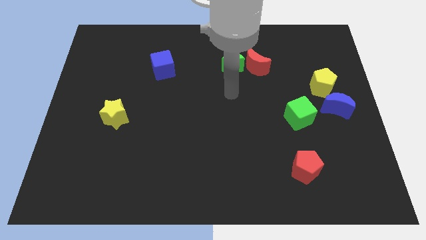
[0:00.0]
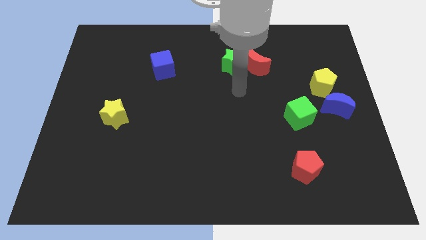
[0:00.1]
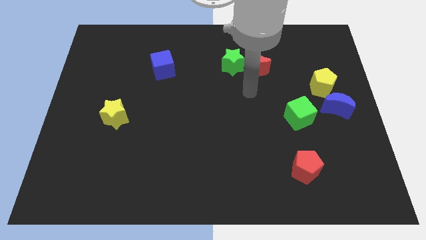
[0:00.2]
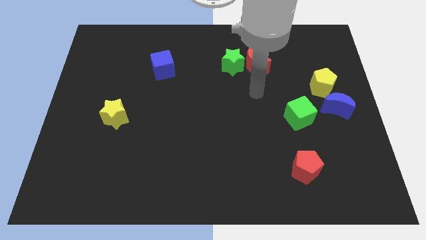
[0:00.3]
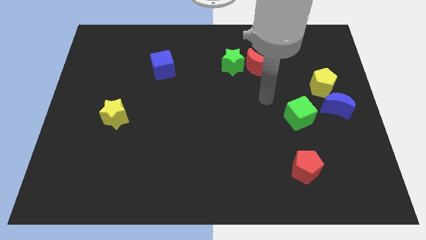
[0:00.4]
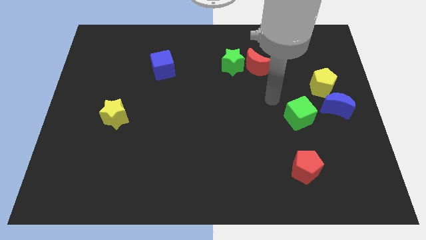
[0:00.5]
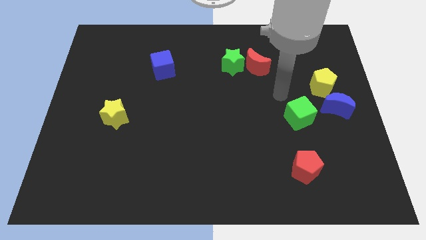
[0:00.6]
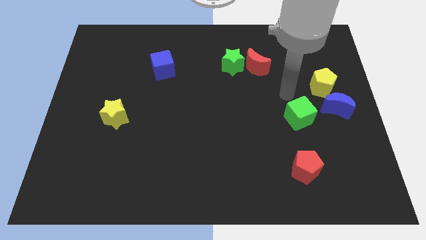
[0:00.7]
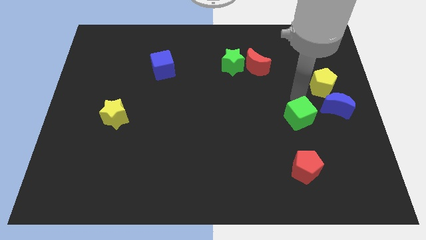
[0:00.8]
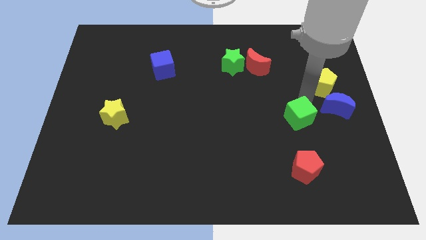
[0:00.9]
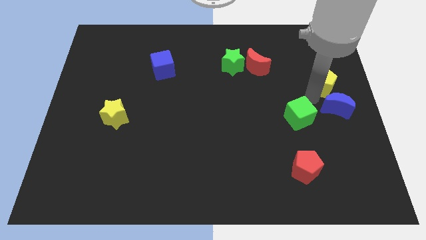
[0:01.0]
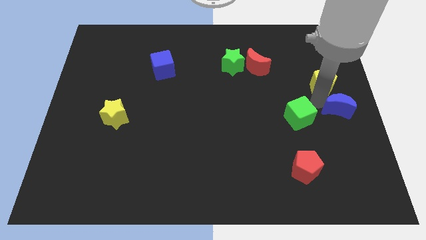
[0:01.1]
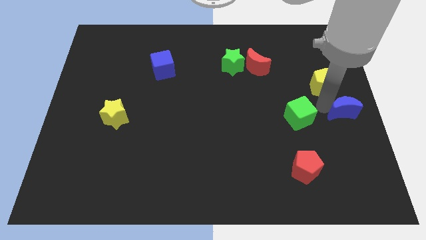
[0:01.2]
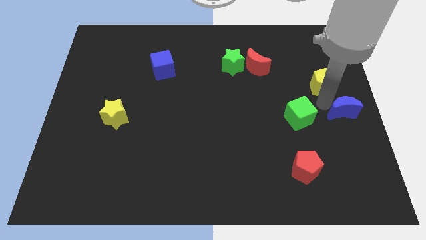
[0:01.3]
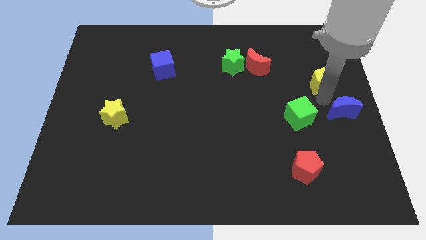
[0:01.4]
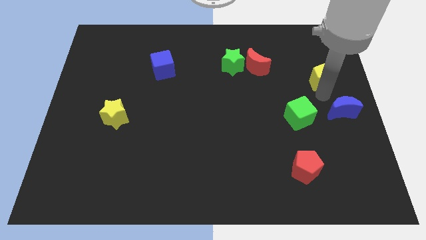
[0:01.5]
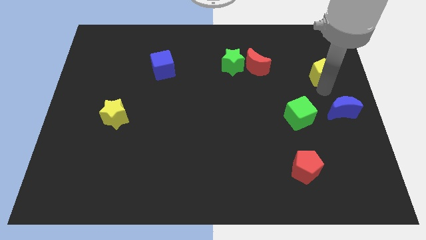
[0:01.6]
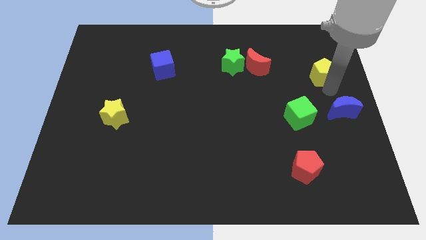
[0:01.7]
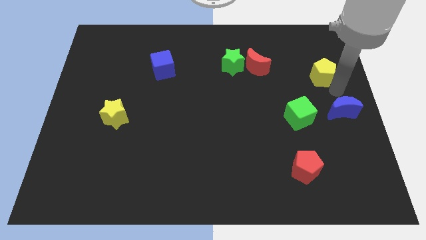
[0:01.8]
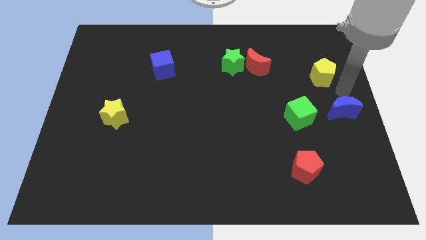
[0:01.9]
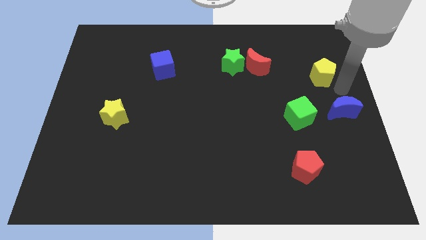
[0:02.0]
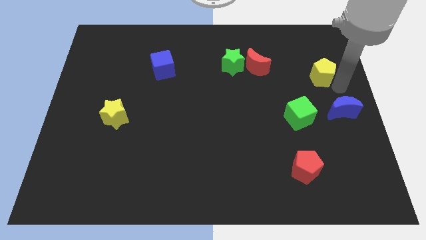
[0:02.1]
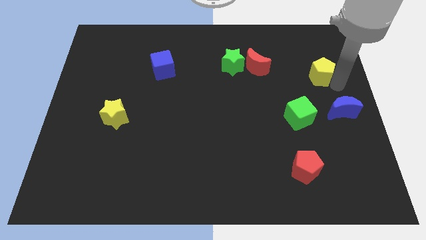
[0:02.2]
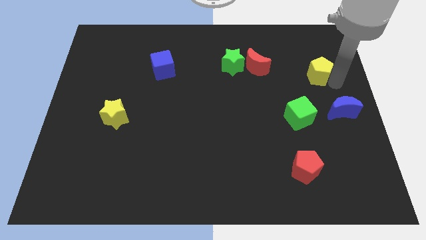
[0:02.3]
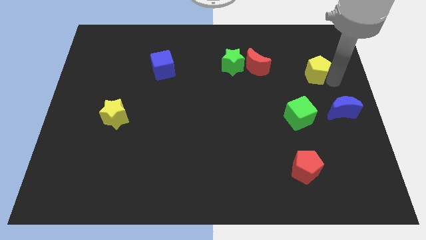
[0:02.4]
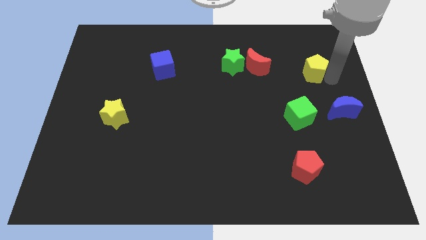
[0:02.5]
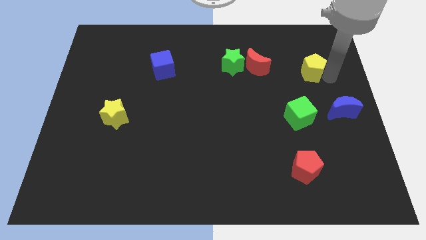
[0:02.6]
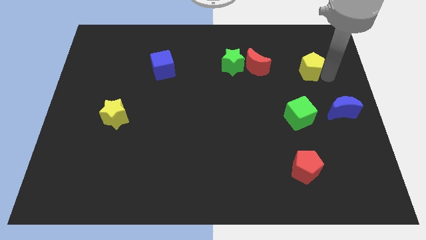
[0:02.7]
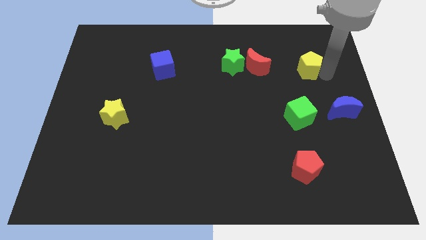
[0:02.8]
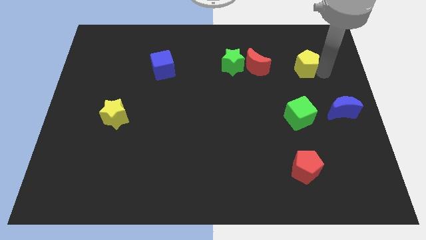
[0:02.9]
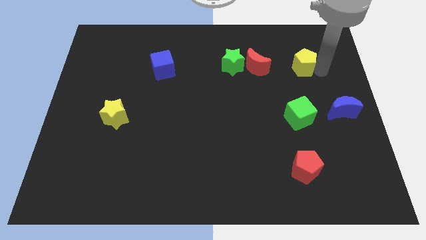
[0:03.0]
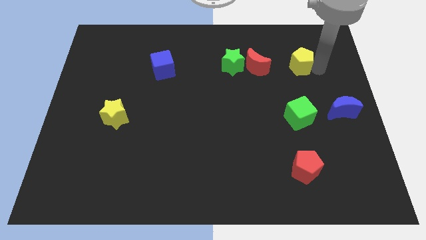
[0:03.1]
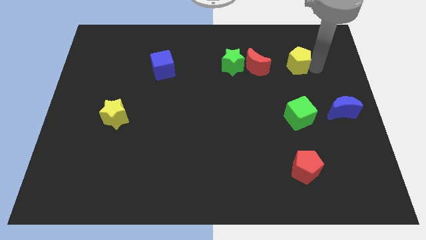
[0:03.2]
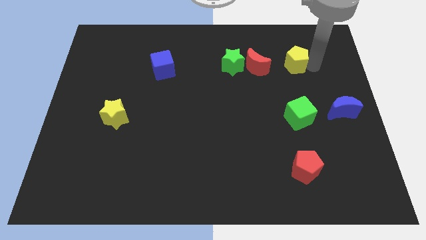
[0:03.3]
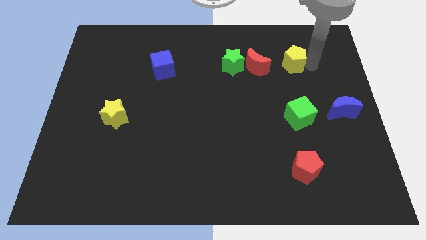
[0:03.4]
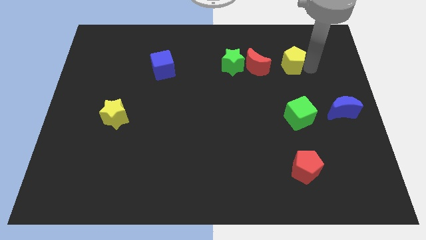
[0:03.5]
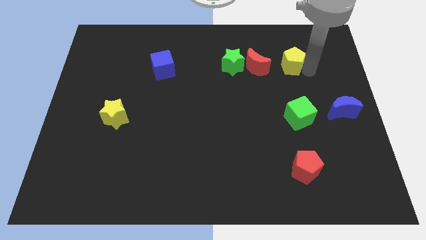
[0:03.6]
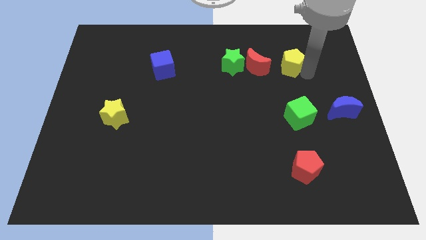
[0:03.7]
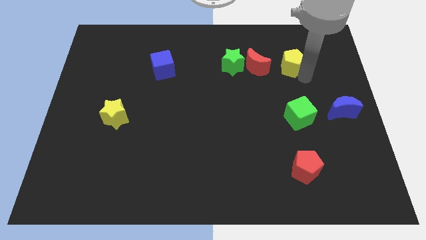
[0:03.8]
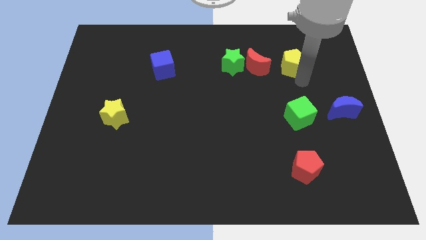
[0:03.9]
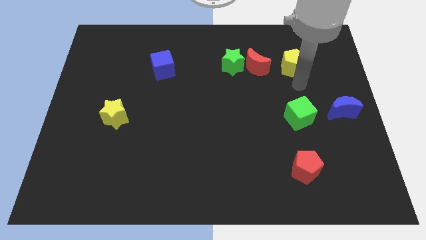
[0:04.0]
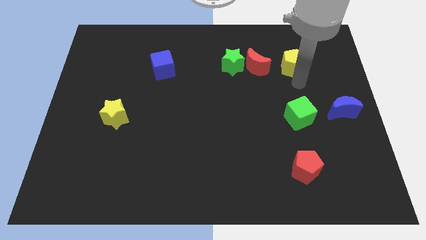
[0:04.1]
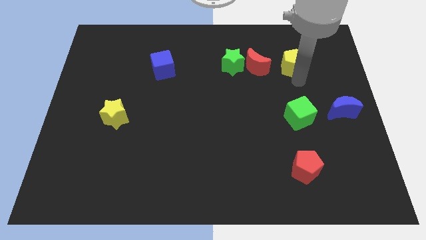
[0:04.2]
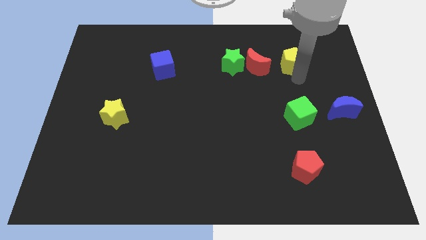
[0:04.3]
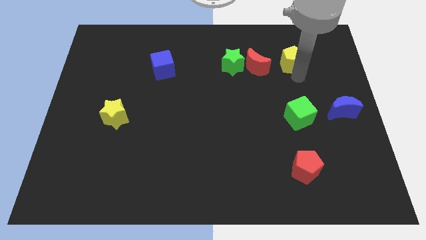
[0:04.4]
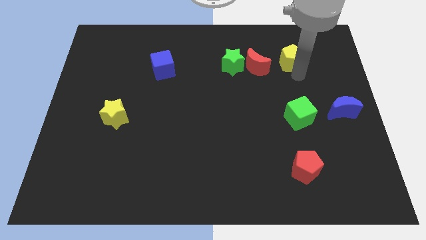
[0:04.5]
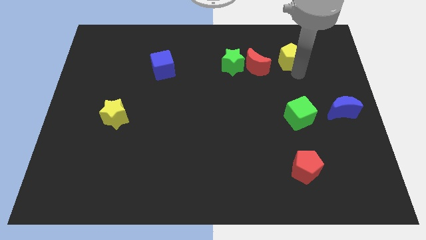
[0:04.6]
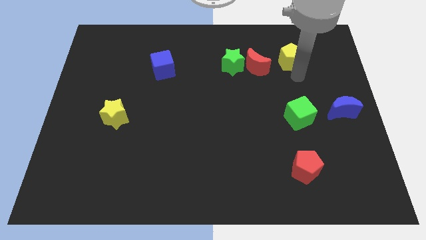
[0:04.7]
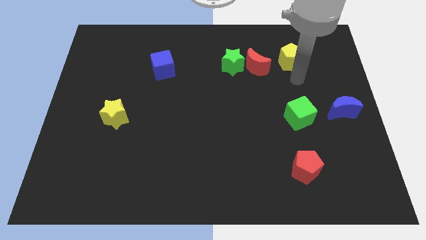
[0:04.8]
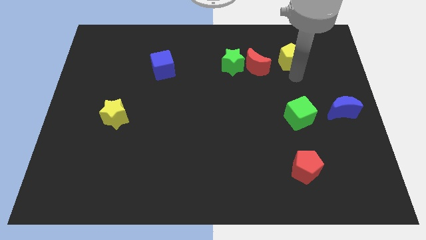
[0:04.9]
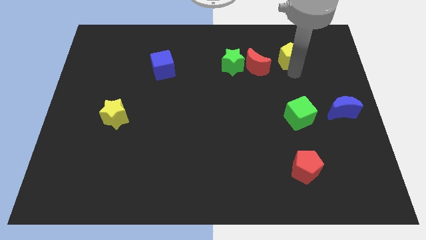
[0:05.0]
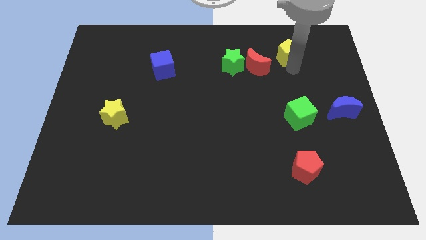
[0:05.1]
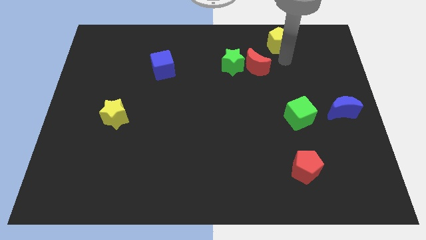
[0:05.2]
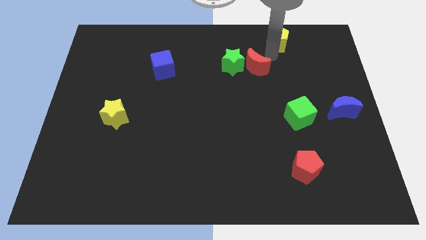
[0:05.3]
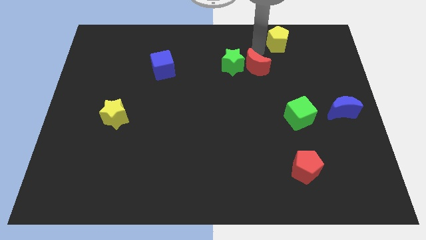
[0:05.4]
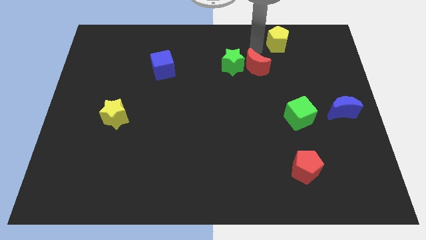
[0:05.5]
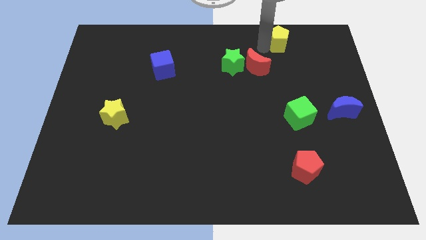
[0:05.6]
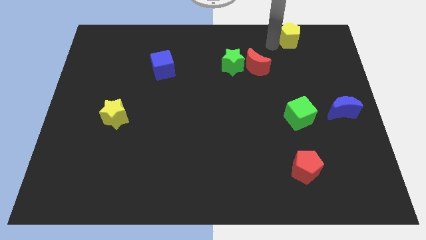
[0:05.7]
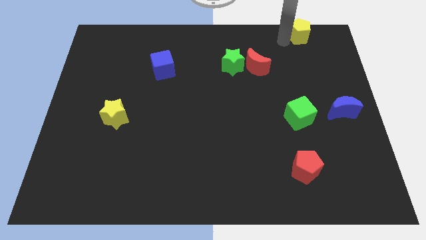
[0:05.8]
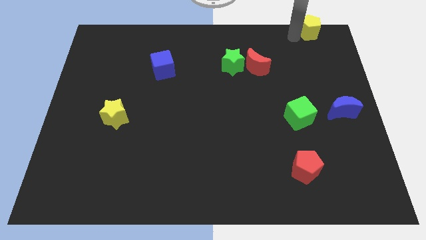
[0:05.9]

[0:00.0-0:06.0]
slide the yellow pentagon to the top right

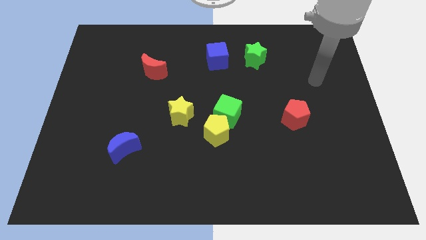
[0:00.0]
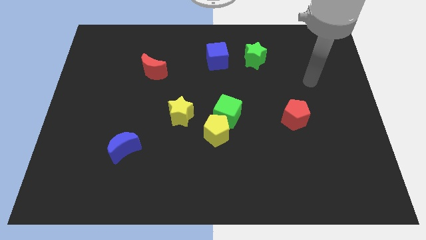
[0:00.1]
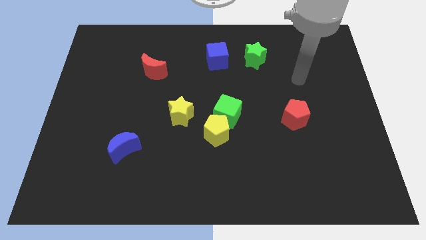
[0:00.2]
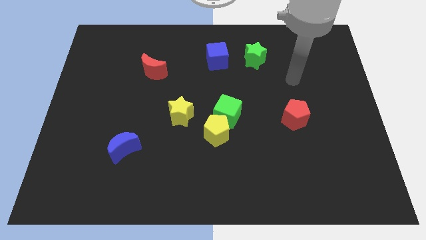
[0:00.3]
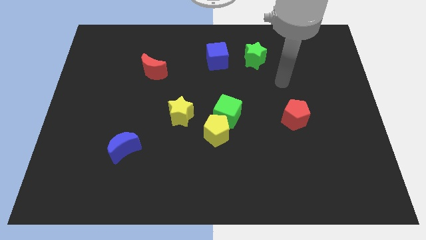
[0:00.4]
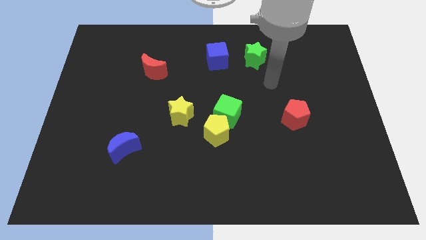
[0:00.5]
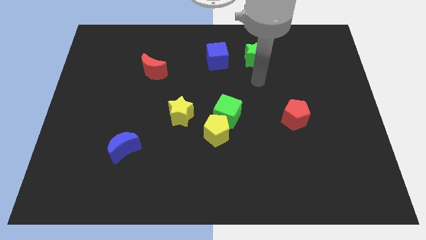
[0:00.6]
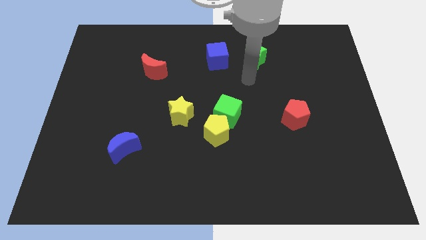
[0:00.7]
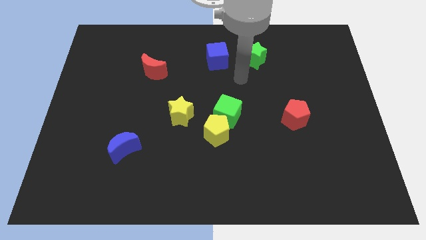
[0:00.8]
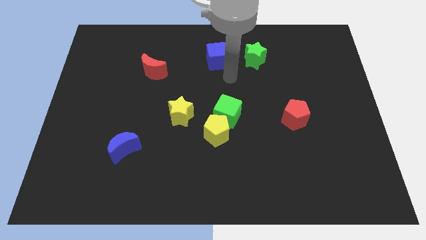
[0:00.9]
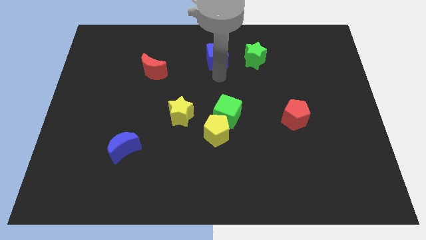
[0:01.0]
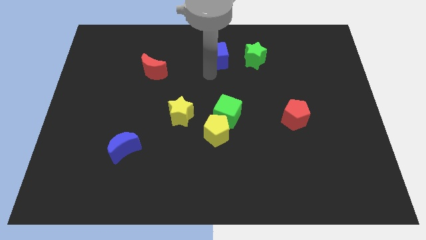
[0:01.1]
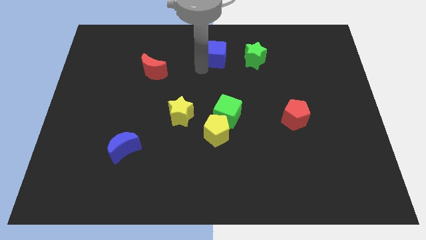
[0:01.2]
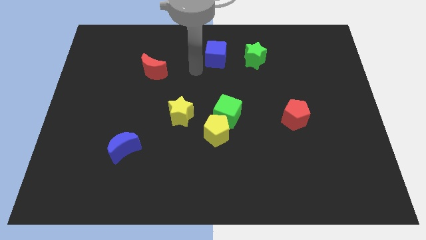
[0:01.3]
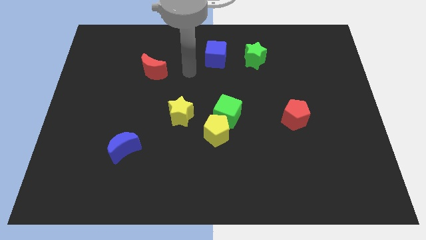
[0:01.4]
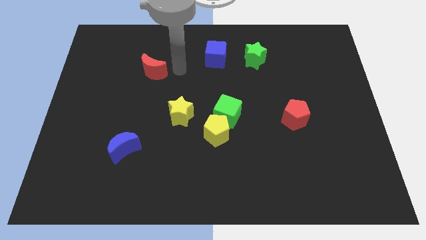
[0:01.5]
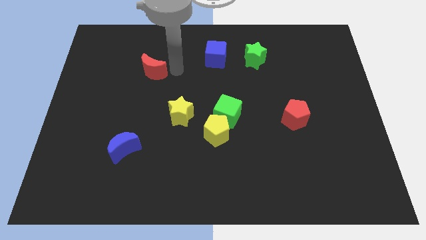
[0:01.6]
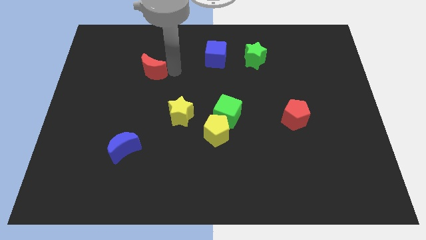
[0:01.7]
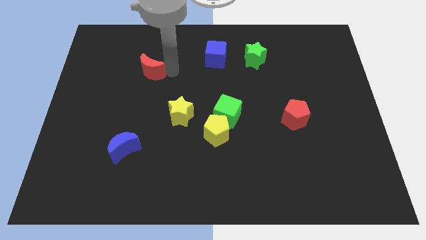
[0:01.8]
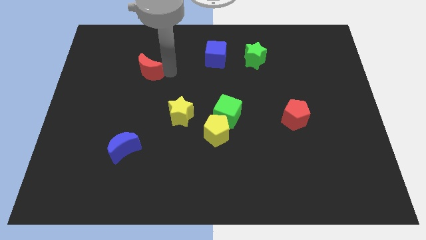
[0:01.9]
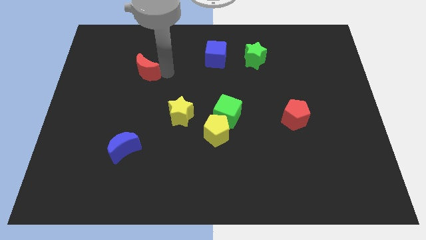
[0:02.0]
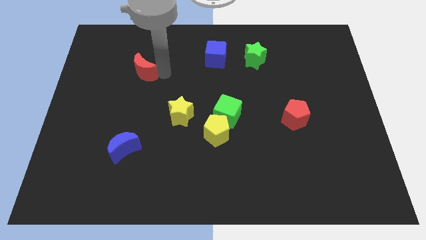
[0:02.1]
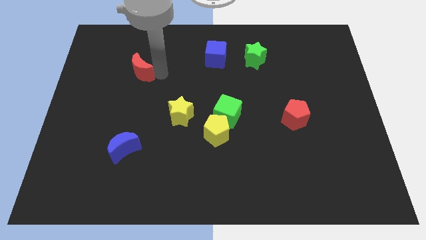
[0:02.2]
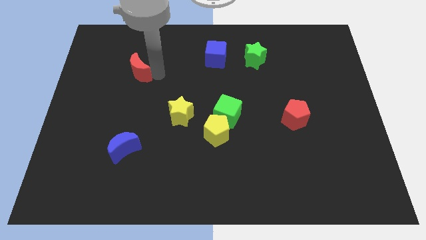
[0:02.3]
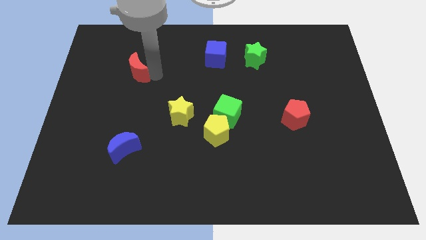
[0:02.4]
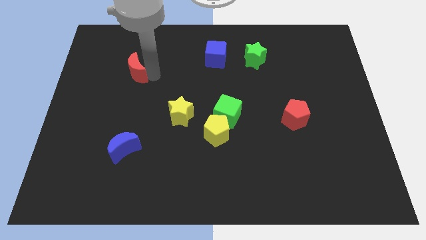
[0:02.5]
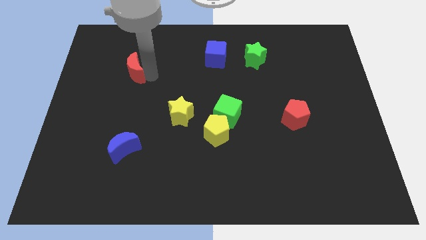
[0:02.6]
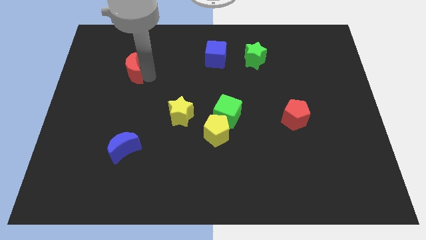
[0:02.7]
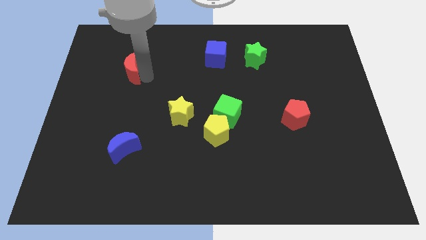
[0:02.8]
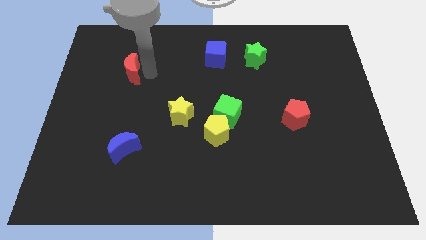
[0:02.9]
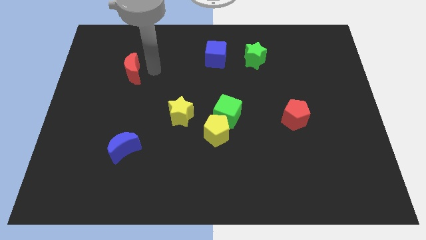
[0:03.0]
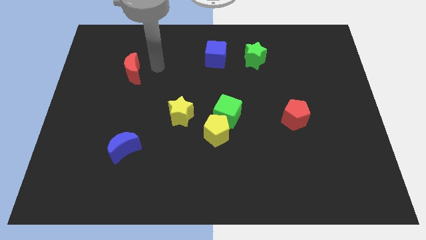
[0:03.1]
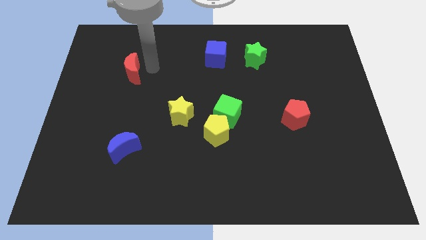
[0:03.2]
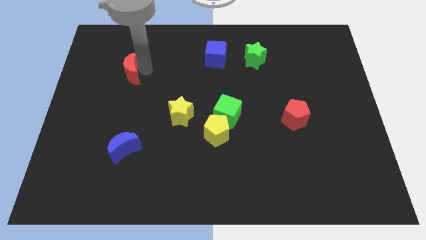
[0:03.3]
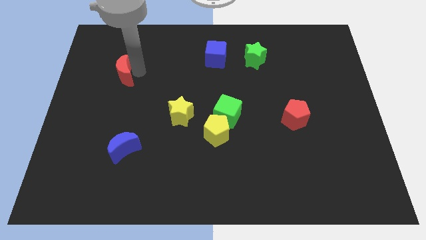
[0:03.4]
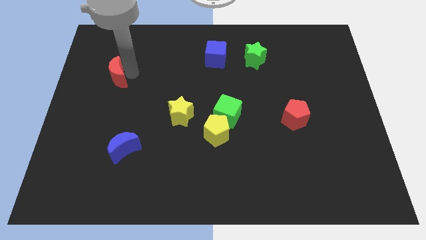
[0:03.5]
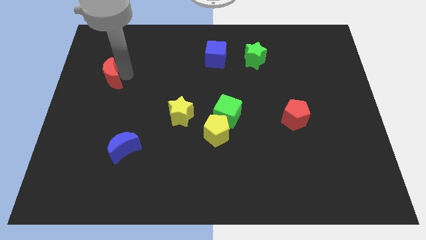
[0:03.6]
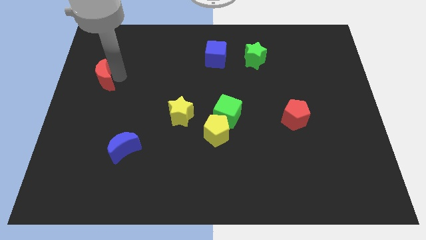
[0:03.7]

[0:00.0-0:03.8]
put the red moon to the center left
